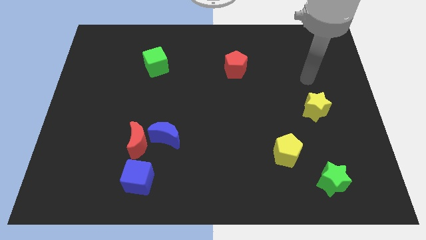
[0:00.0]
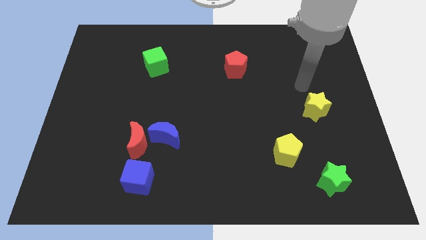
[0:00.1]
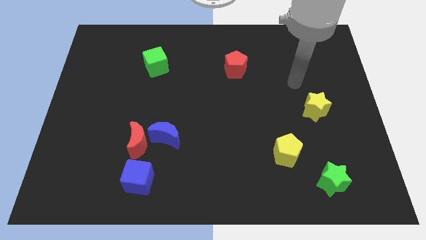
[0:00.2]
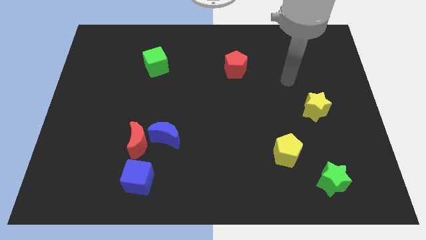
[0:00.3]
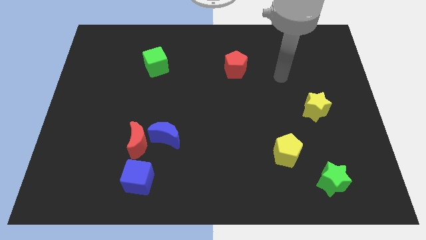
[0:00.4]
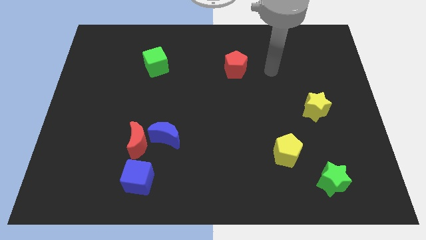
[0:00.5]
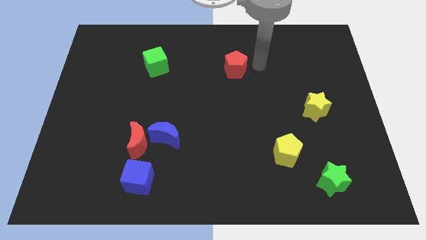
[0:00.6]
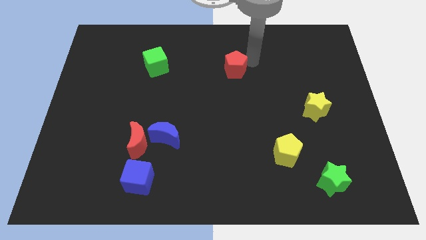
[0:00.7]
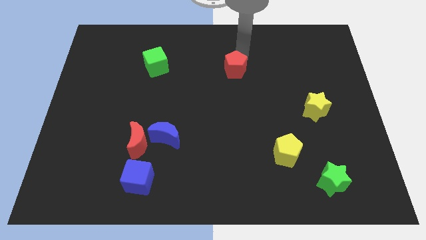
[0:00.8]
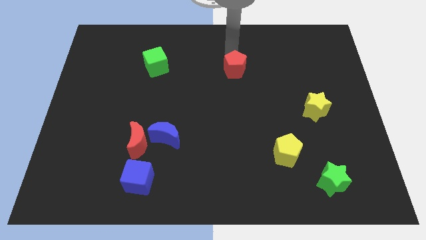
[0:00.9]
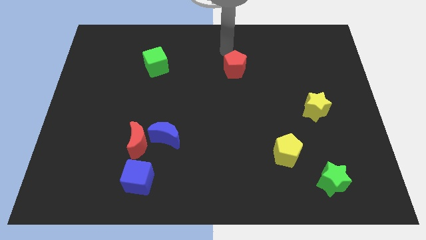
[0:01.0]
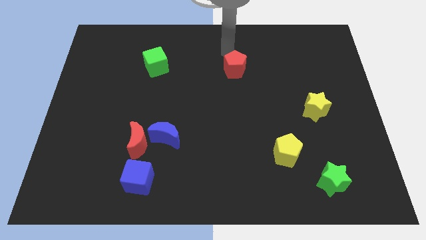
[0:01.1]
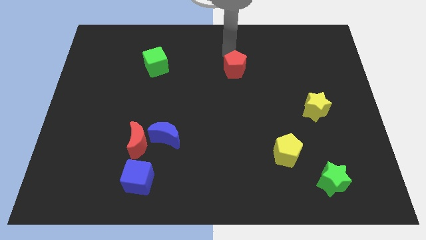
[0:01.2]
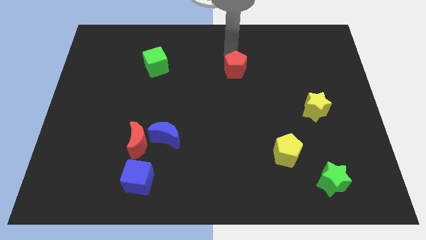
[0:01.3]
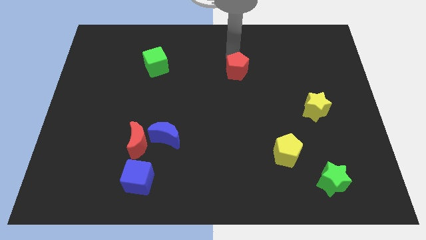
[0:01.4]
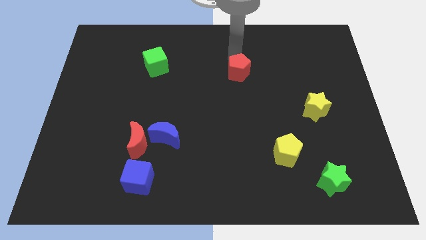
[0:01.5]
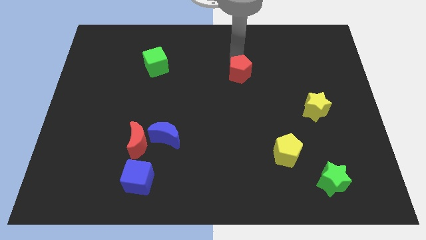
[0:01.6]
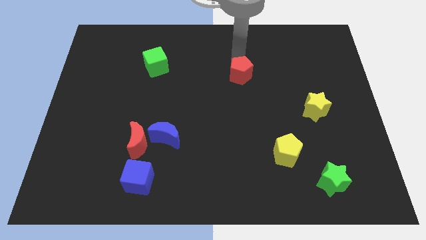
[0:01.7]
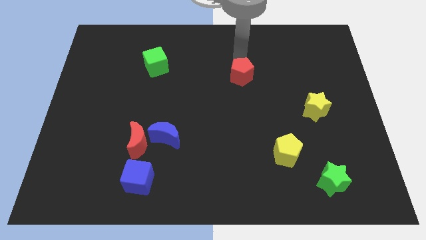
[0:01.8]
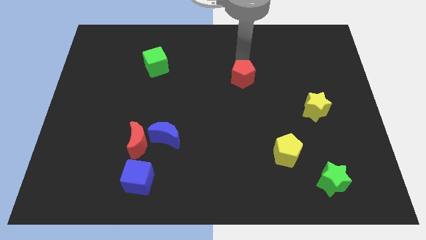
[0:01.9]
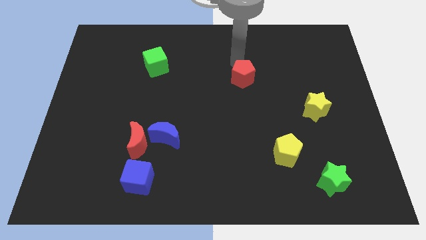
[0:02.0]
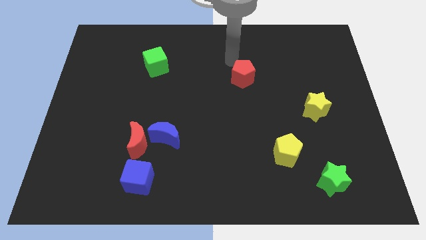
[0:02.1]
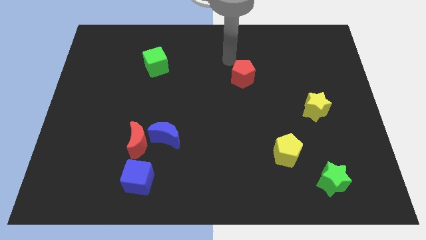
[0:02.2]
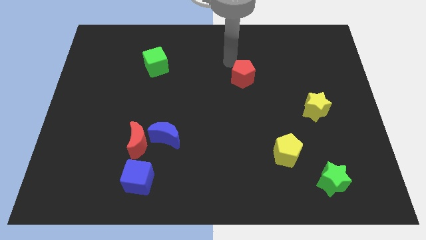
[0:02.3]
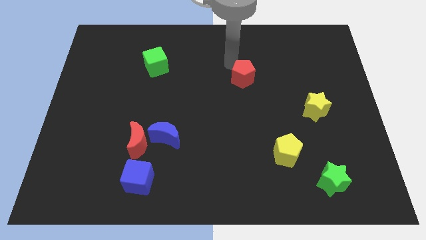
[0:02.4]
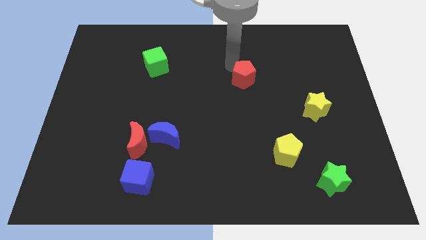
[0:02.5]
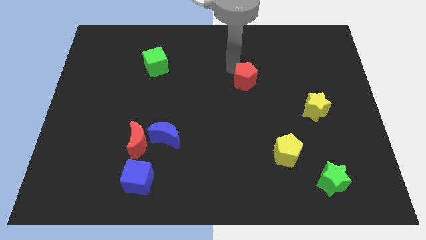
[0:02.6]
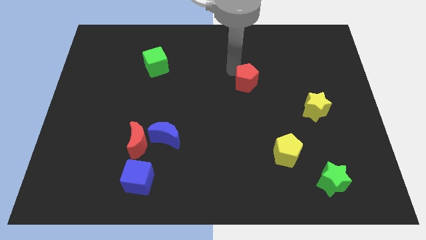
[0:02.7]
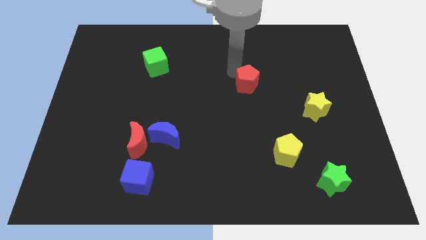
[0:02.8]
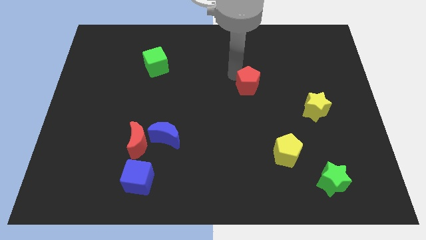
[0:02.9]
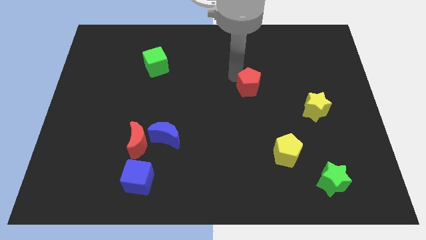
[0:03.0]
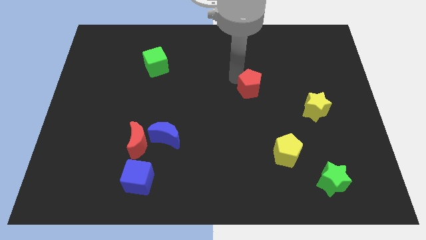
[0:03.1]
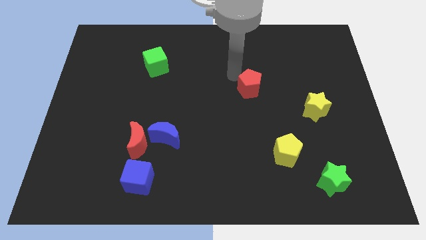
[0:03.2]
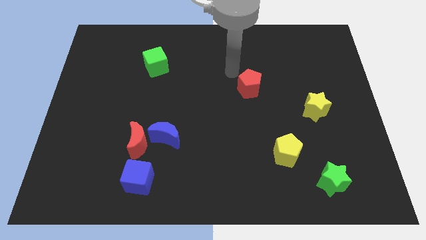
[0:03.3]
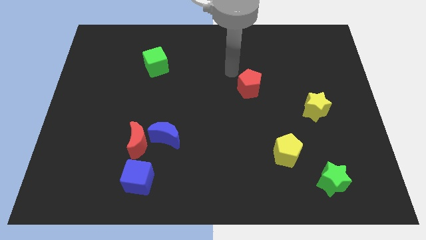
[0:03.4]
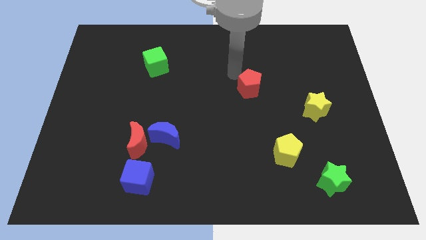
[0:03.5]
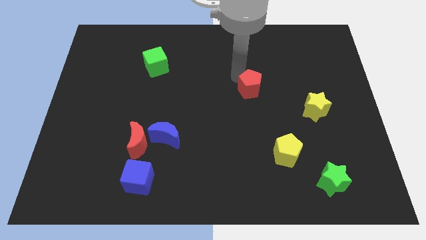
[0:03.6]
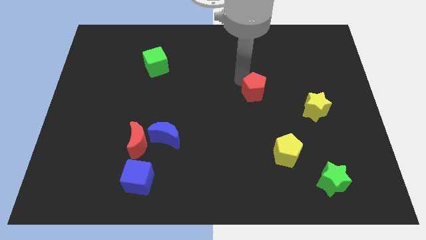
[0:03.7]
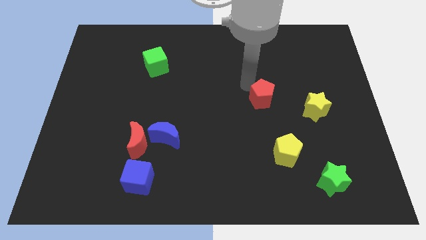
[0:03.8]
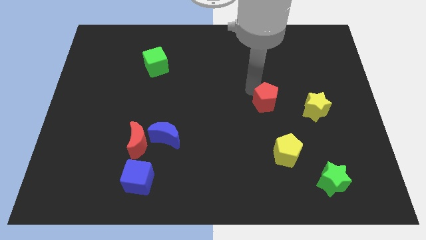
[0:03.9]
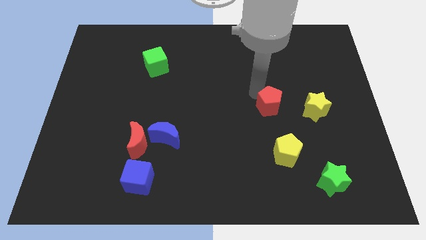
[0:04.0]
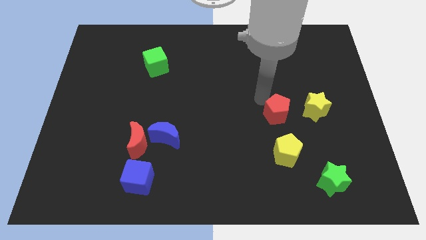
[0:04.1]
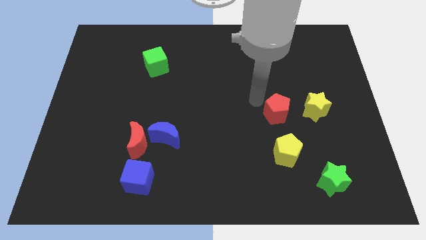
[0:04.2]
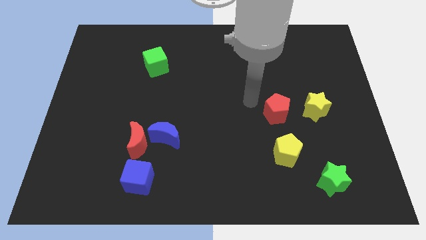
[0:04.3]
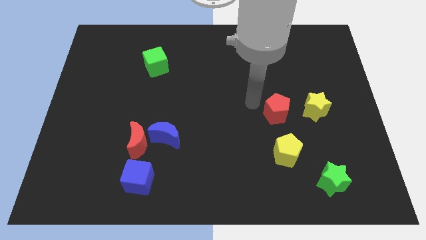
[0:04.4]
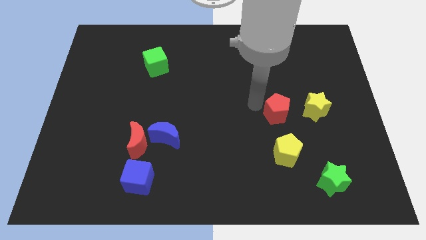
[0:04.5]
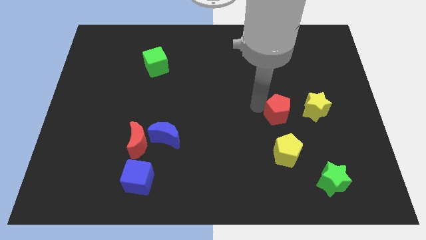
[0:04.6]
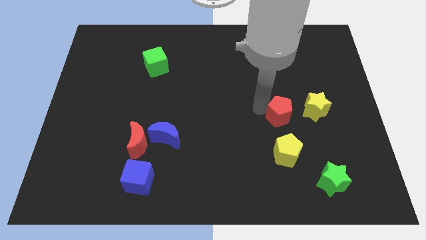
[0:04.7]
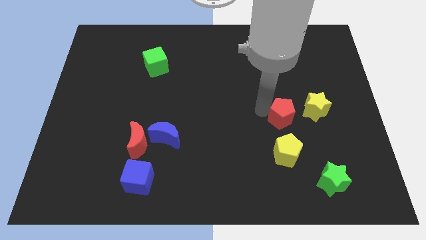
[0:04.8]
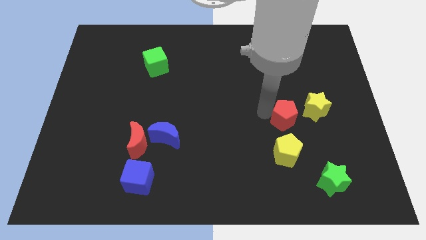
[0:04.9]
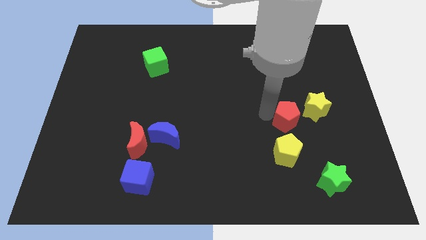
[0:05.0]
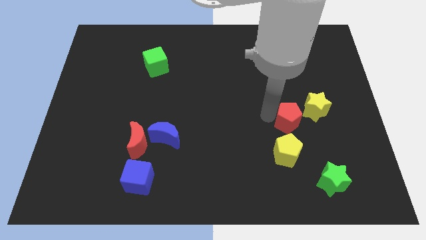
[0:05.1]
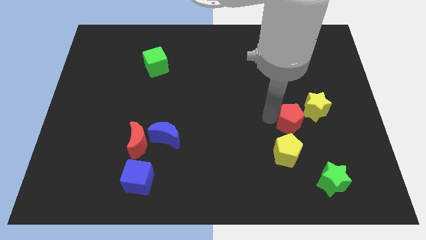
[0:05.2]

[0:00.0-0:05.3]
slide the red pentagon diagonally downwards and right

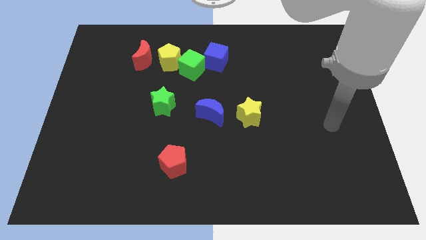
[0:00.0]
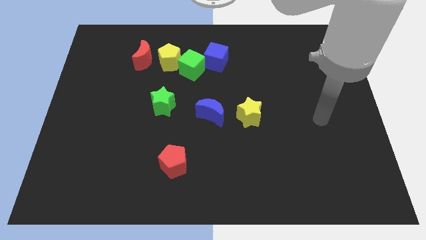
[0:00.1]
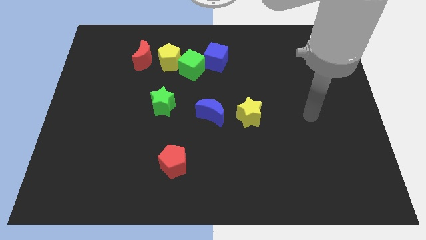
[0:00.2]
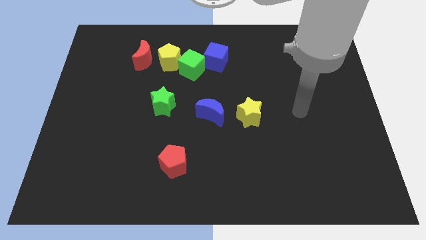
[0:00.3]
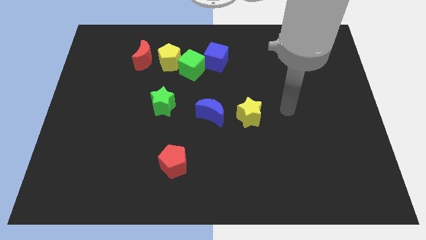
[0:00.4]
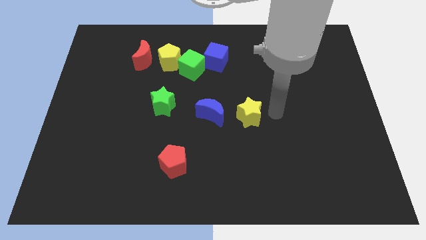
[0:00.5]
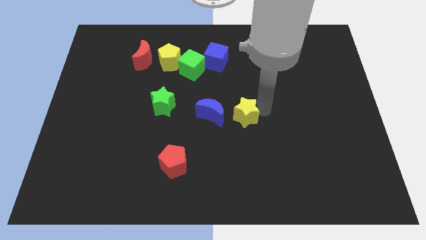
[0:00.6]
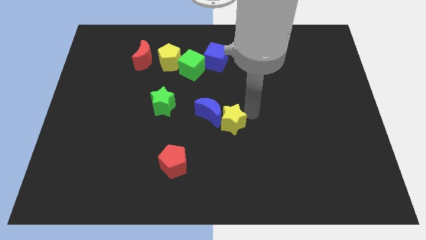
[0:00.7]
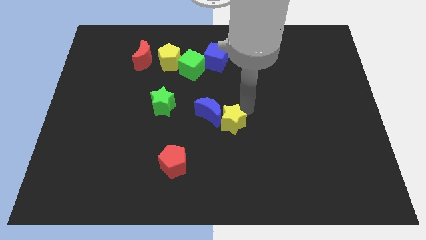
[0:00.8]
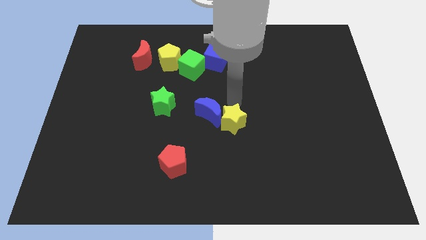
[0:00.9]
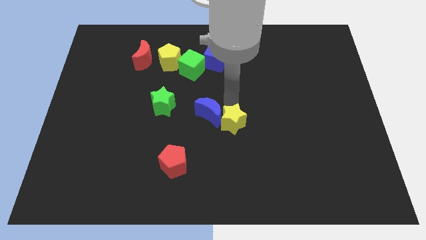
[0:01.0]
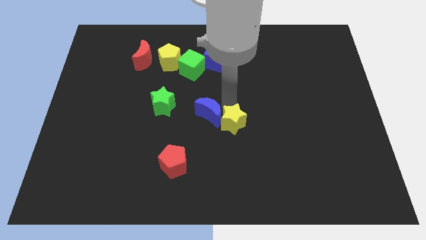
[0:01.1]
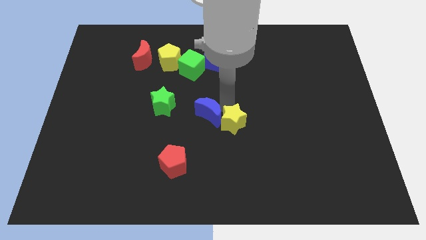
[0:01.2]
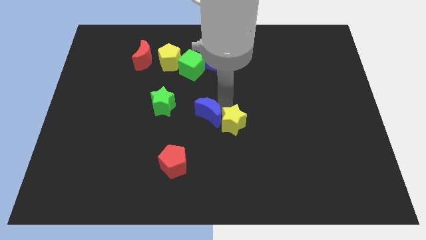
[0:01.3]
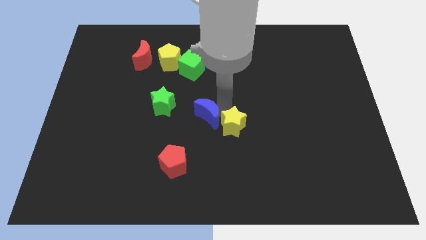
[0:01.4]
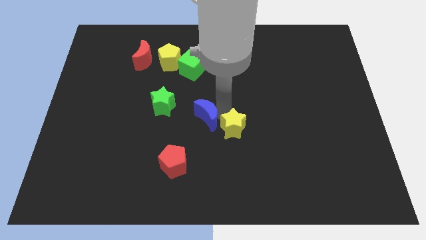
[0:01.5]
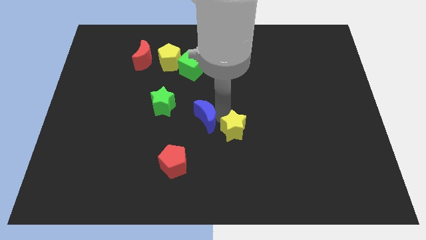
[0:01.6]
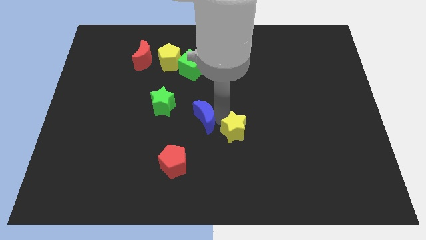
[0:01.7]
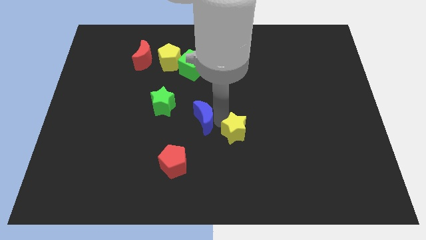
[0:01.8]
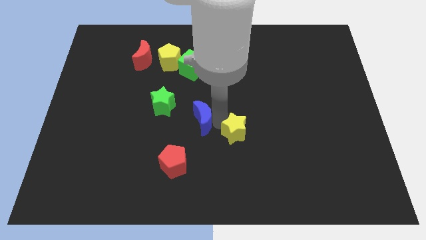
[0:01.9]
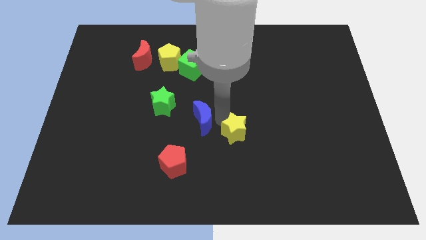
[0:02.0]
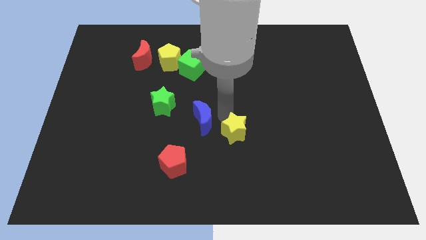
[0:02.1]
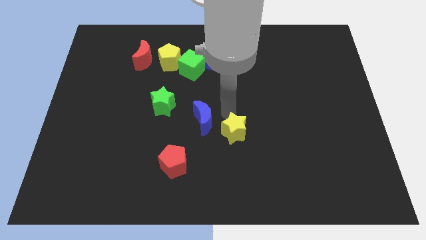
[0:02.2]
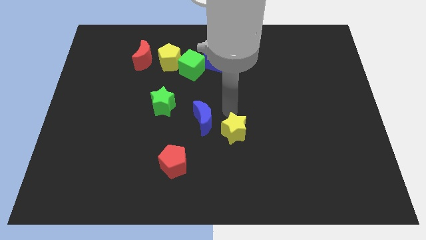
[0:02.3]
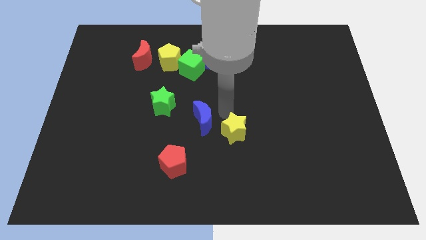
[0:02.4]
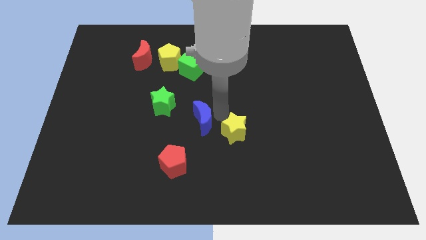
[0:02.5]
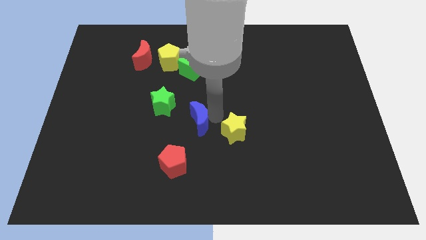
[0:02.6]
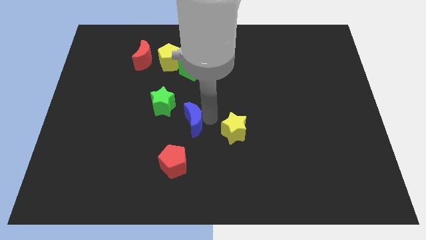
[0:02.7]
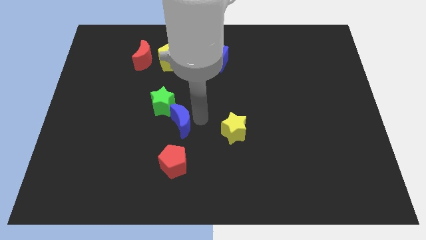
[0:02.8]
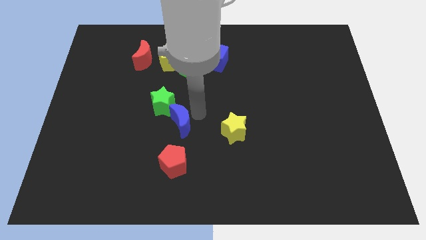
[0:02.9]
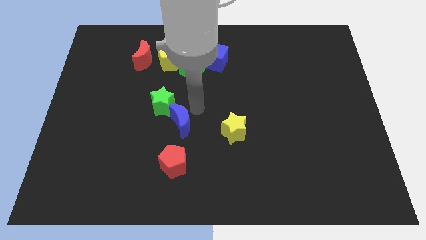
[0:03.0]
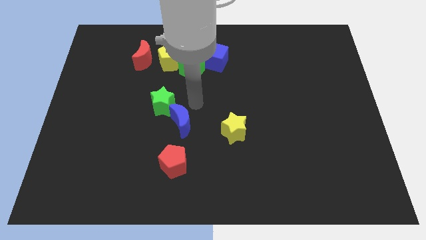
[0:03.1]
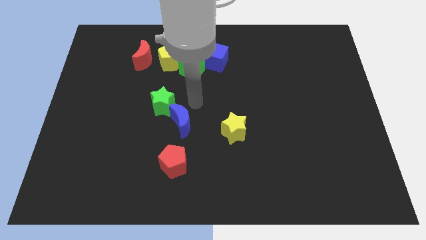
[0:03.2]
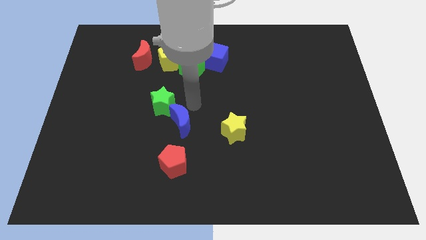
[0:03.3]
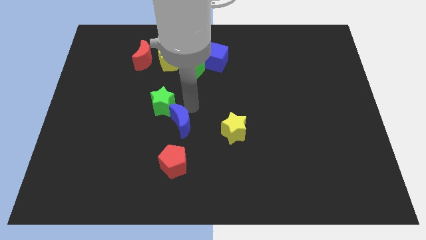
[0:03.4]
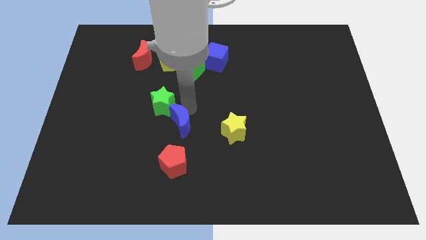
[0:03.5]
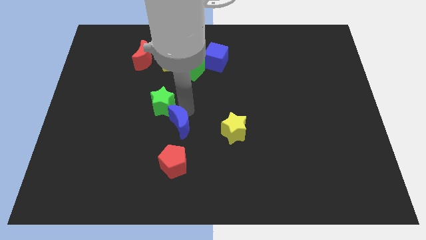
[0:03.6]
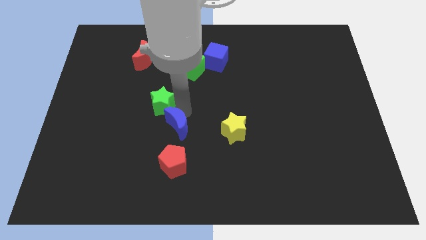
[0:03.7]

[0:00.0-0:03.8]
move the blue moon somewhat diagonally down and to the left
